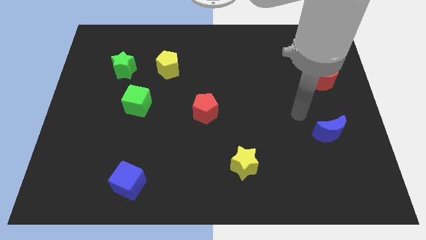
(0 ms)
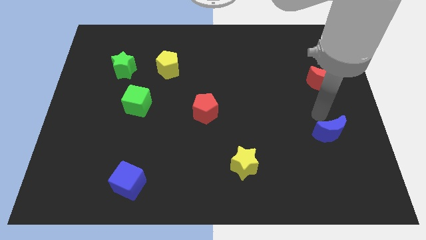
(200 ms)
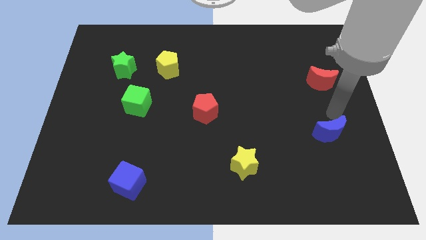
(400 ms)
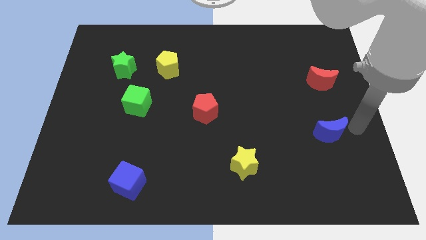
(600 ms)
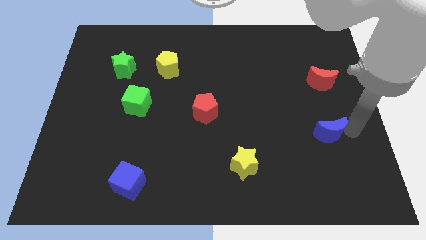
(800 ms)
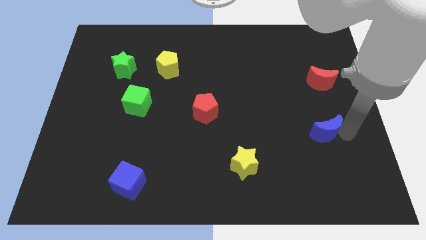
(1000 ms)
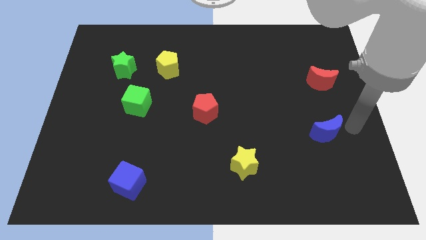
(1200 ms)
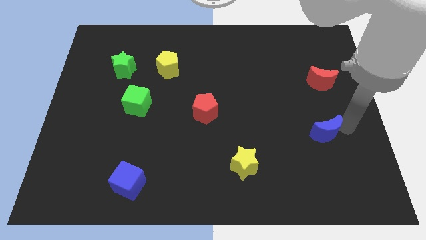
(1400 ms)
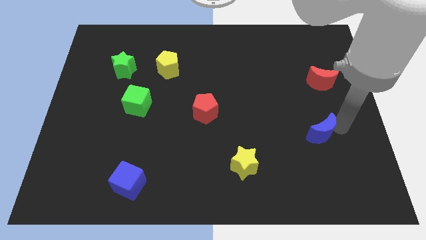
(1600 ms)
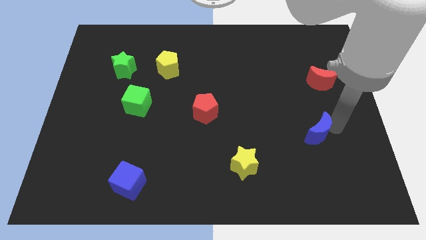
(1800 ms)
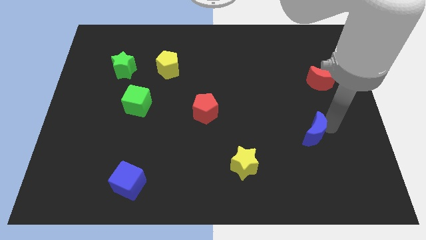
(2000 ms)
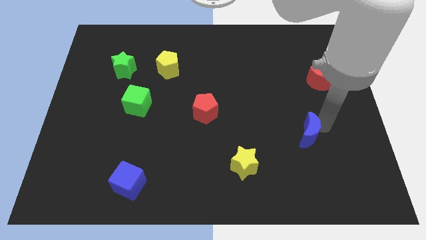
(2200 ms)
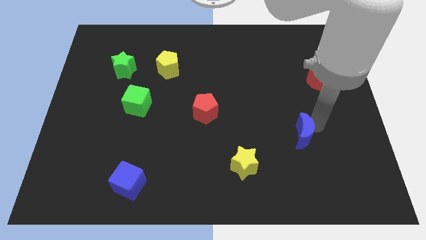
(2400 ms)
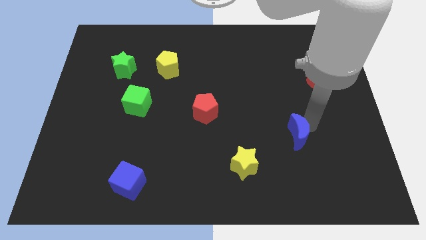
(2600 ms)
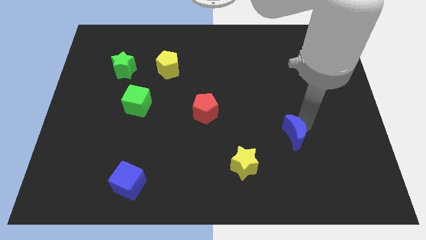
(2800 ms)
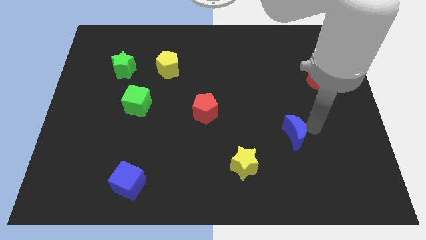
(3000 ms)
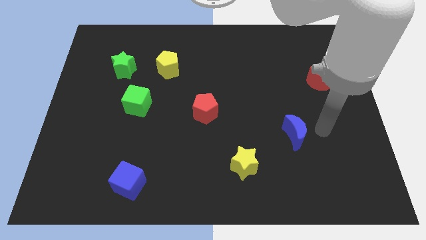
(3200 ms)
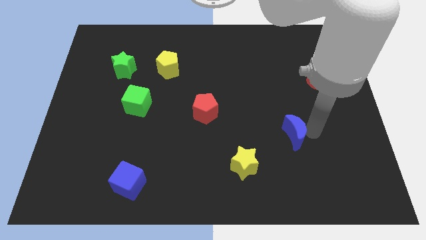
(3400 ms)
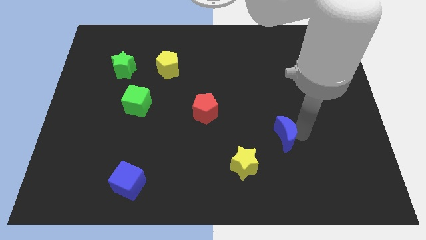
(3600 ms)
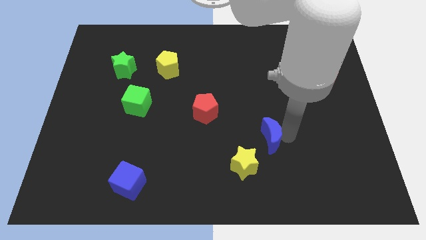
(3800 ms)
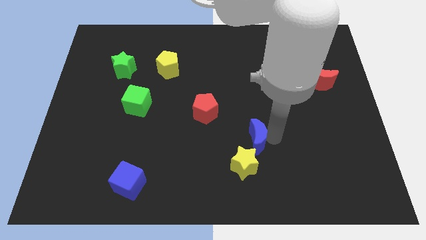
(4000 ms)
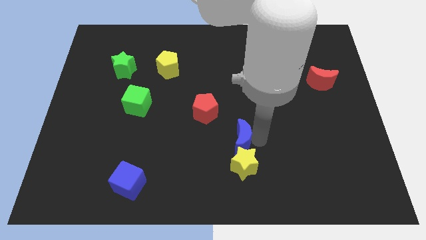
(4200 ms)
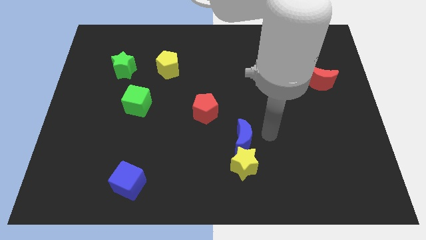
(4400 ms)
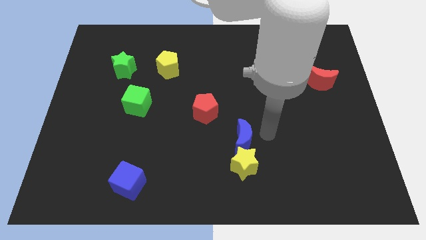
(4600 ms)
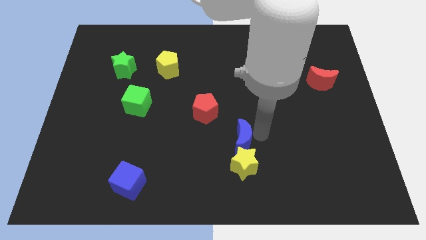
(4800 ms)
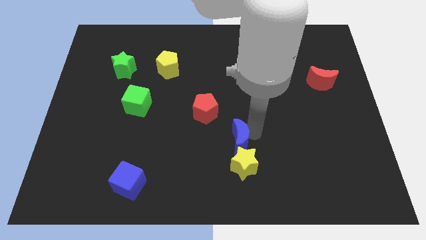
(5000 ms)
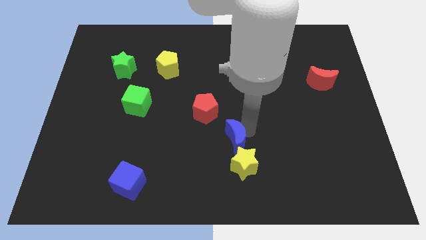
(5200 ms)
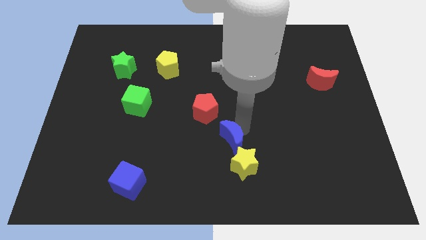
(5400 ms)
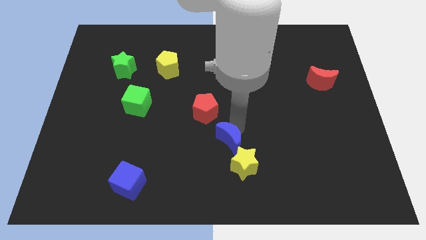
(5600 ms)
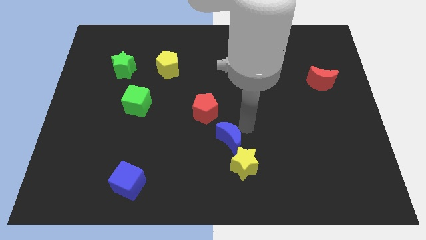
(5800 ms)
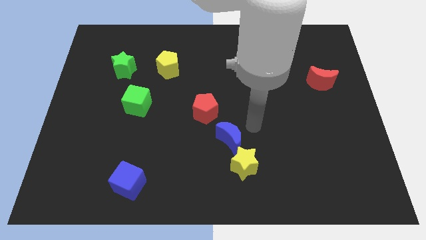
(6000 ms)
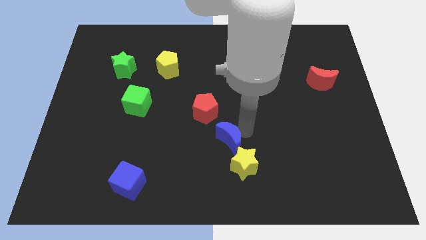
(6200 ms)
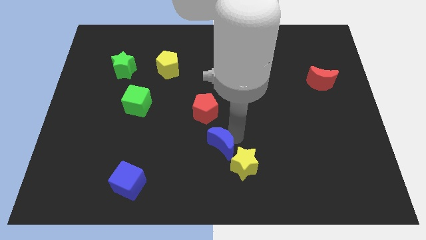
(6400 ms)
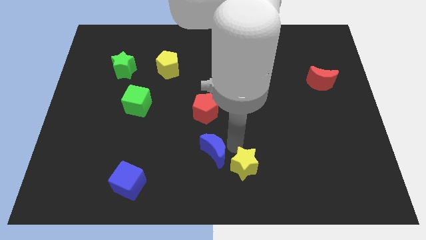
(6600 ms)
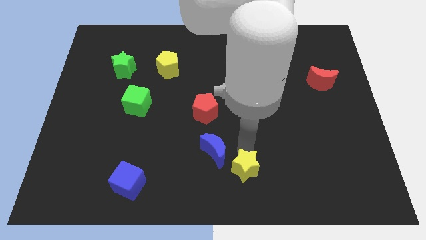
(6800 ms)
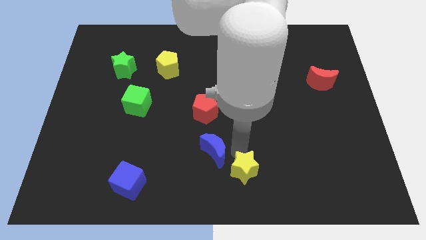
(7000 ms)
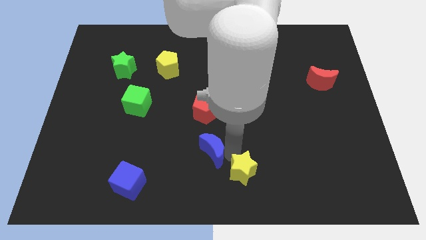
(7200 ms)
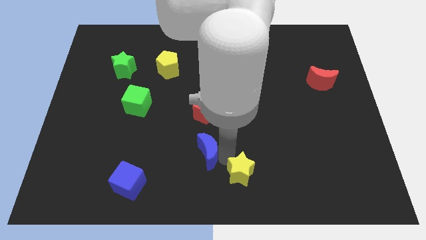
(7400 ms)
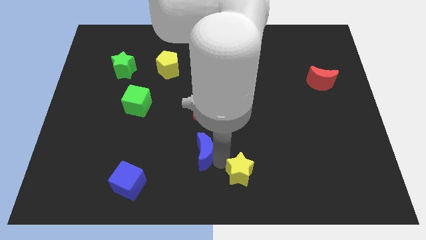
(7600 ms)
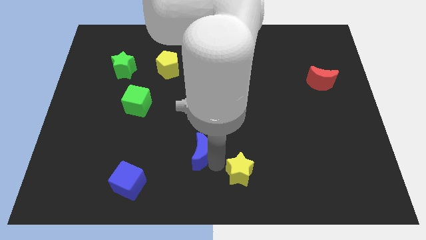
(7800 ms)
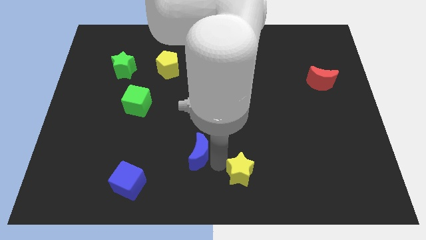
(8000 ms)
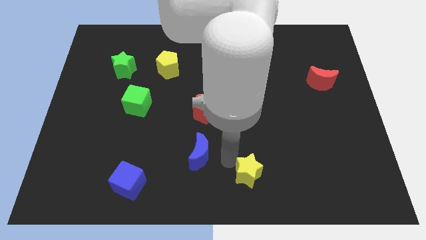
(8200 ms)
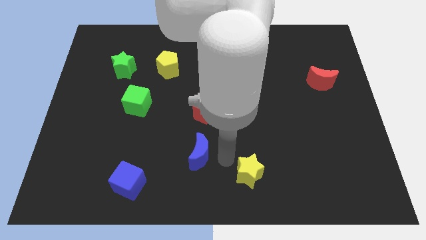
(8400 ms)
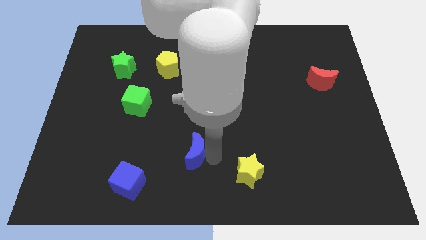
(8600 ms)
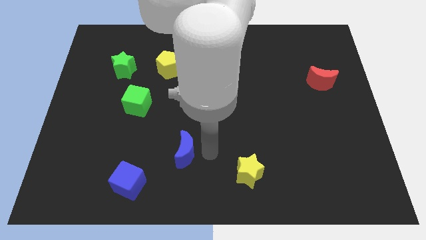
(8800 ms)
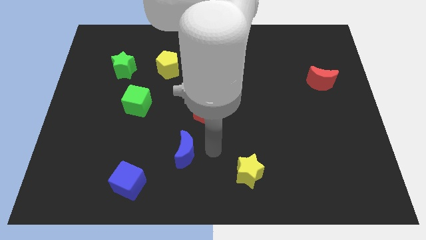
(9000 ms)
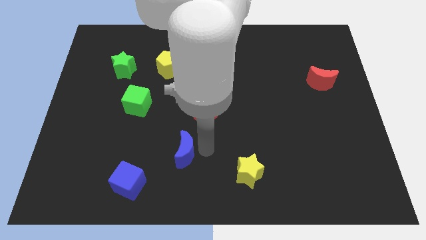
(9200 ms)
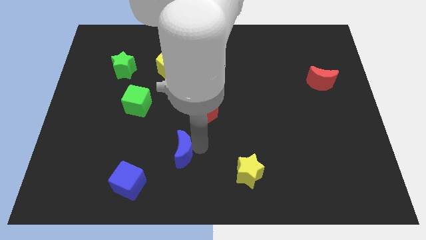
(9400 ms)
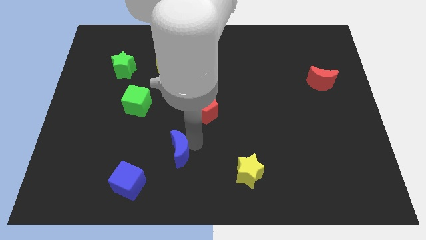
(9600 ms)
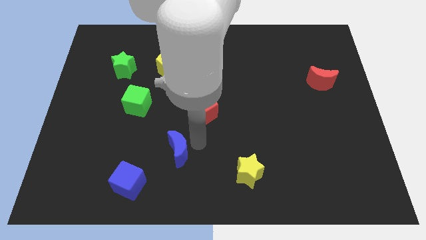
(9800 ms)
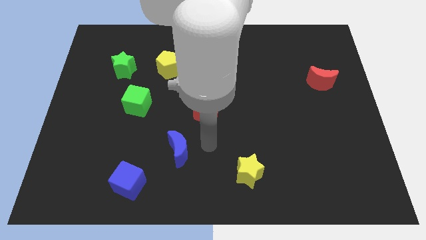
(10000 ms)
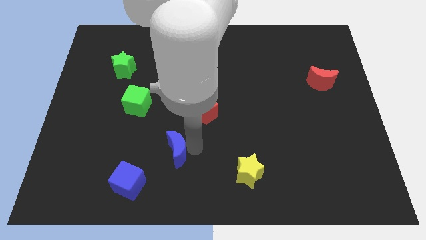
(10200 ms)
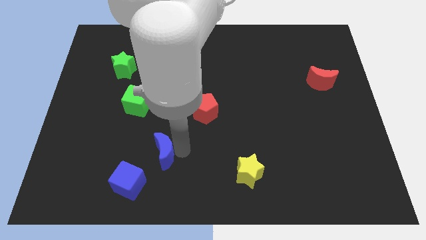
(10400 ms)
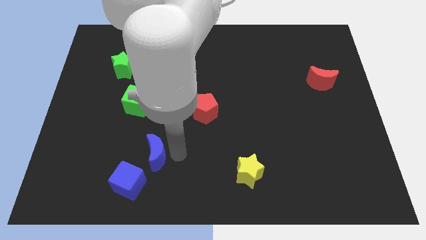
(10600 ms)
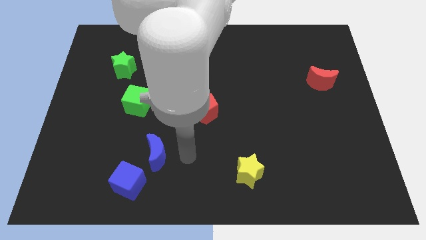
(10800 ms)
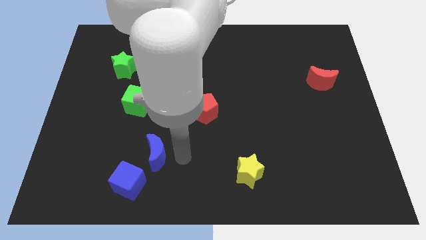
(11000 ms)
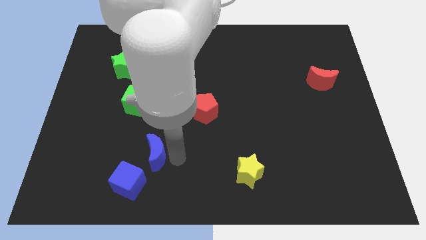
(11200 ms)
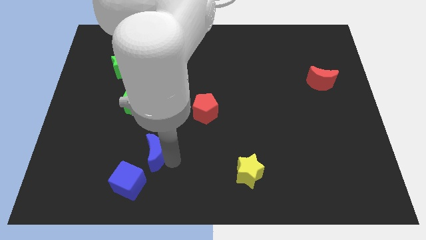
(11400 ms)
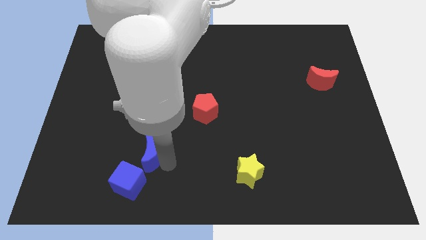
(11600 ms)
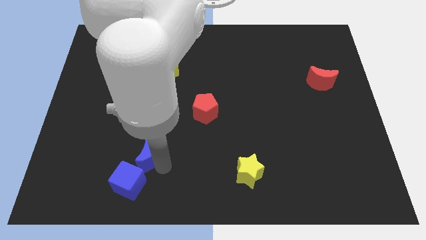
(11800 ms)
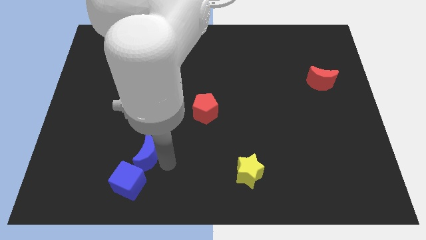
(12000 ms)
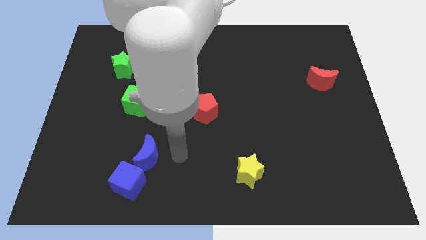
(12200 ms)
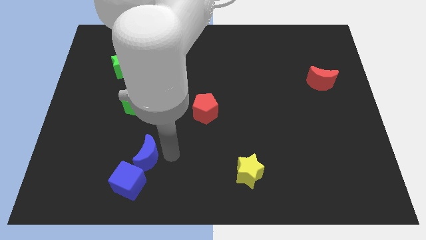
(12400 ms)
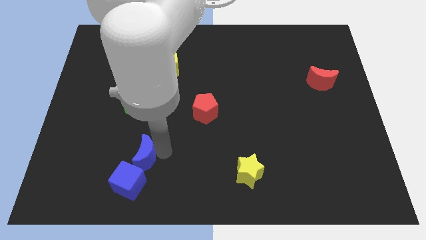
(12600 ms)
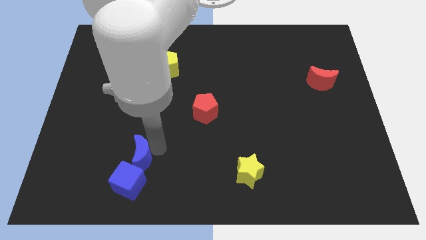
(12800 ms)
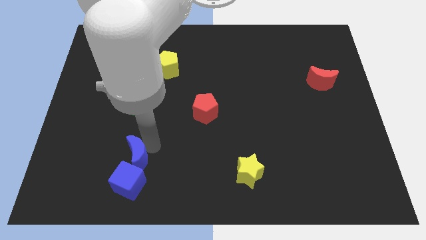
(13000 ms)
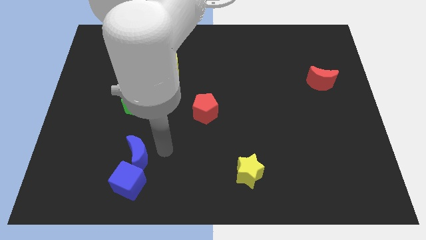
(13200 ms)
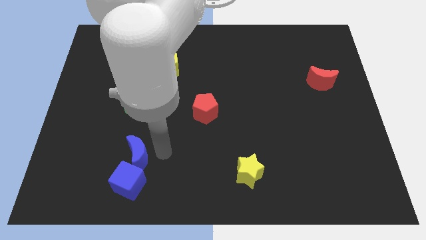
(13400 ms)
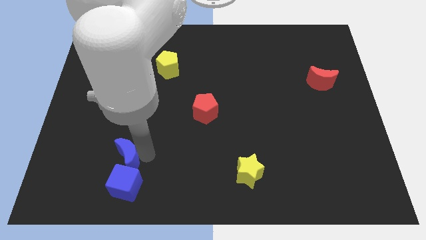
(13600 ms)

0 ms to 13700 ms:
move the blue moon to the top left of the blue cube

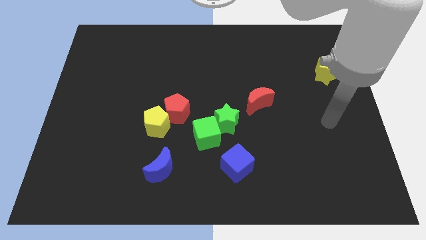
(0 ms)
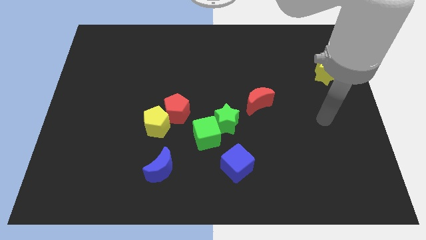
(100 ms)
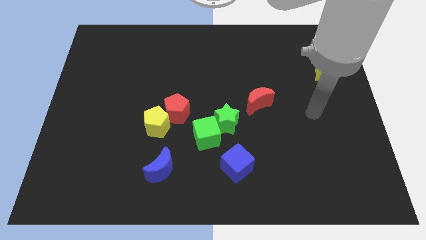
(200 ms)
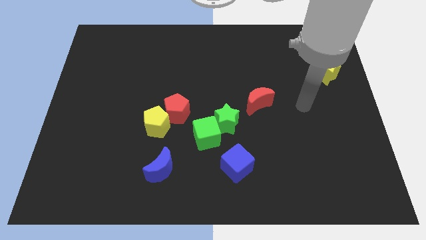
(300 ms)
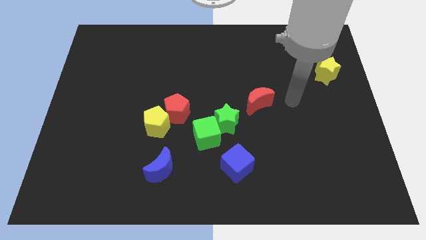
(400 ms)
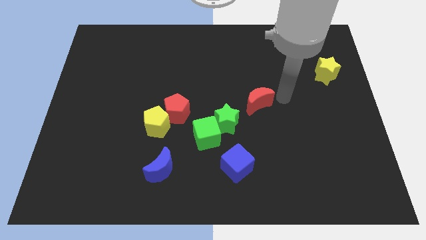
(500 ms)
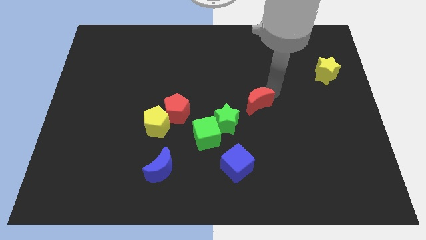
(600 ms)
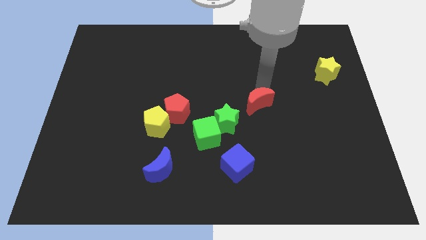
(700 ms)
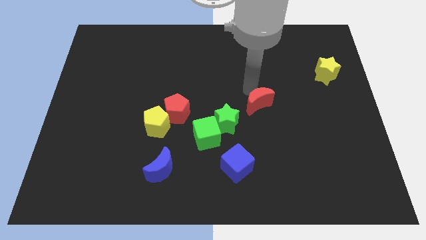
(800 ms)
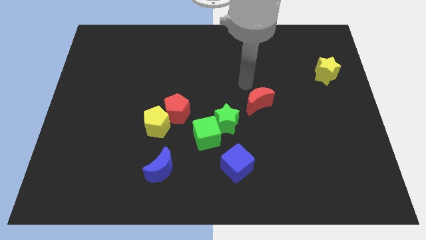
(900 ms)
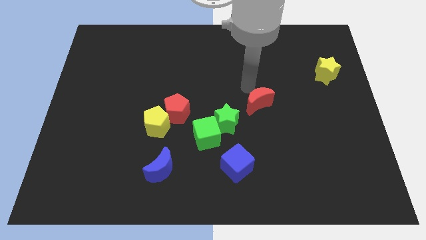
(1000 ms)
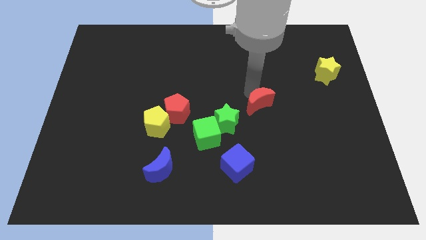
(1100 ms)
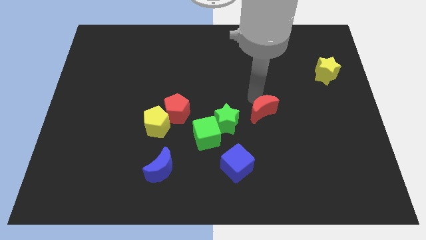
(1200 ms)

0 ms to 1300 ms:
push the red moon just right of the green star
